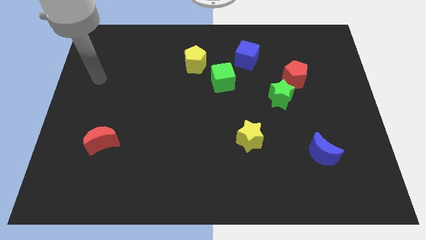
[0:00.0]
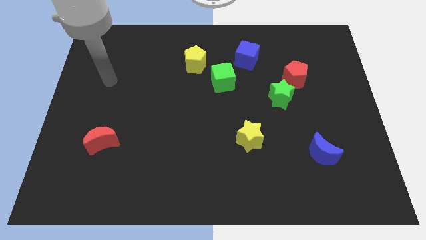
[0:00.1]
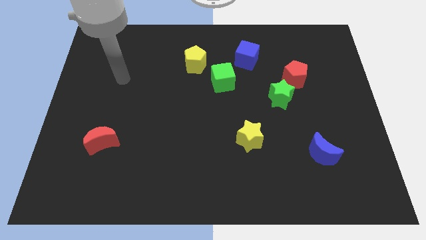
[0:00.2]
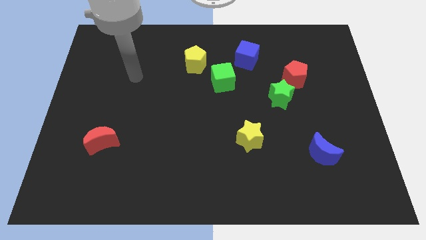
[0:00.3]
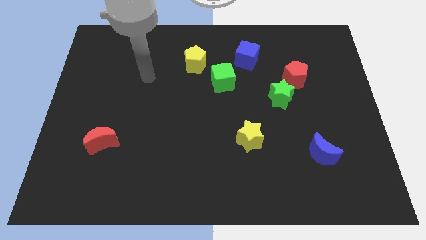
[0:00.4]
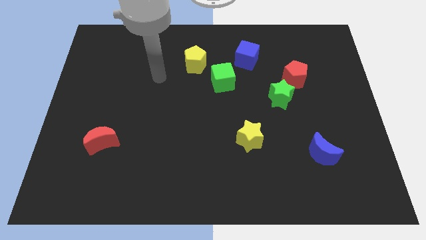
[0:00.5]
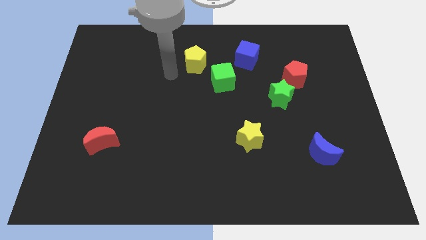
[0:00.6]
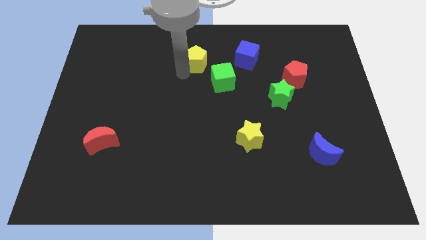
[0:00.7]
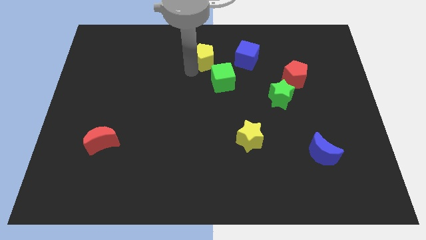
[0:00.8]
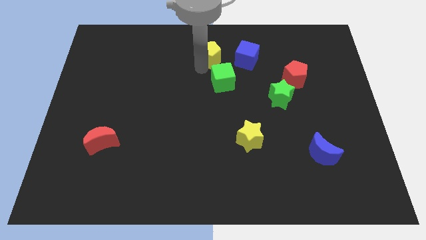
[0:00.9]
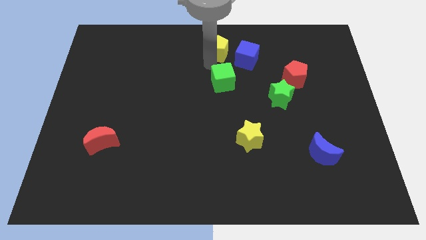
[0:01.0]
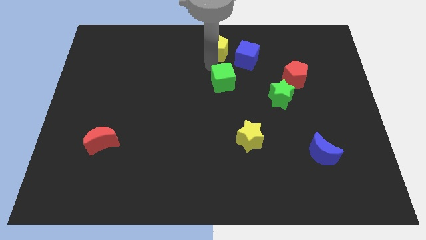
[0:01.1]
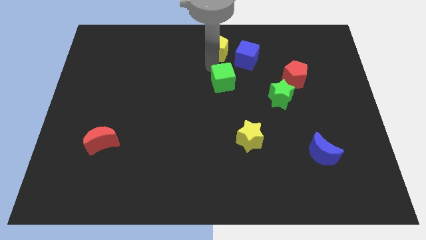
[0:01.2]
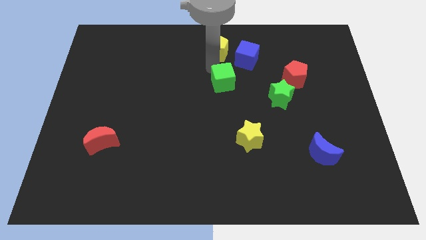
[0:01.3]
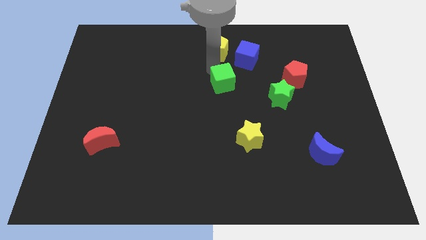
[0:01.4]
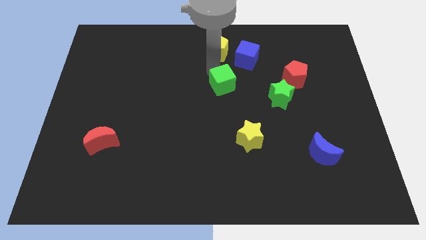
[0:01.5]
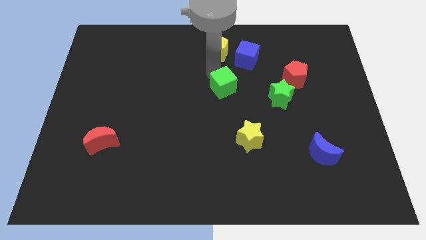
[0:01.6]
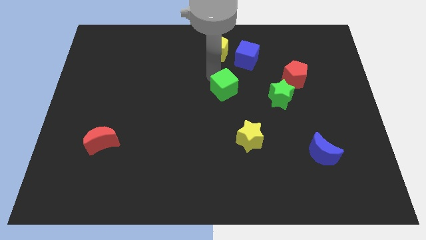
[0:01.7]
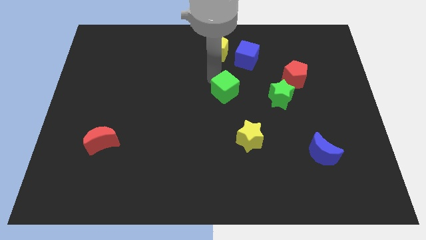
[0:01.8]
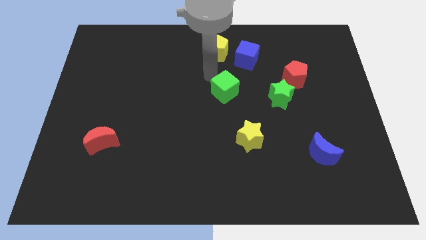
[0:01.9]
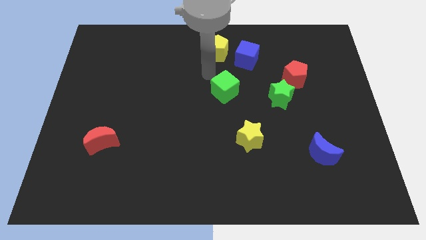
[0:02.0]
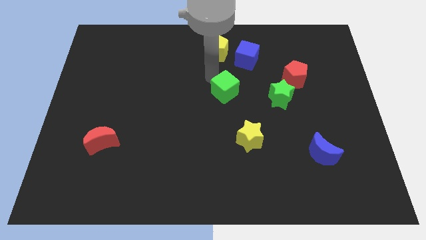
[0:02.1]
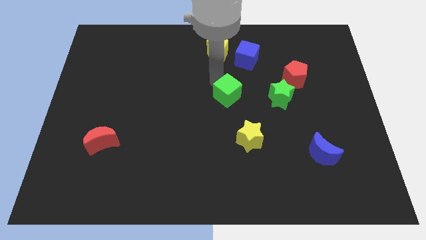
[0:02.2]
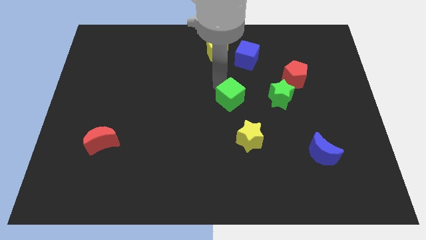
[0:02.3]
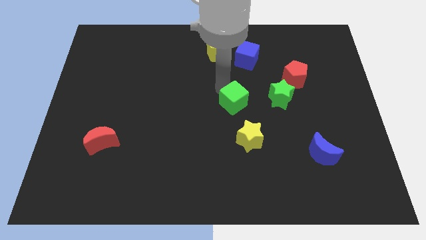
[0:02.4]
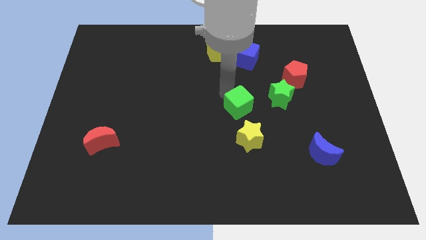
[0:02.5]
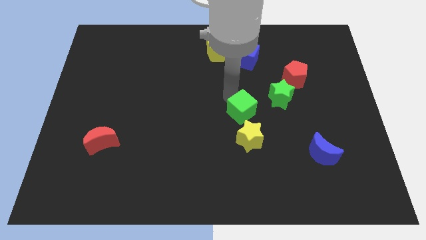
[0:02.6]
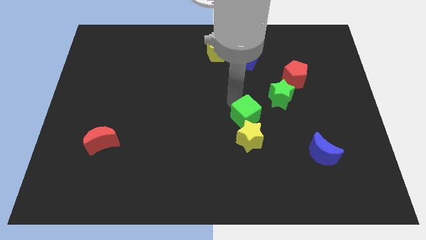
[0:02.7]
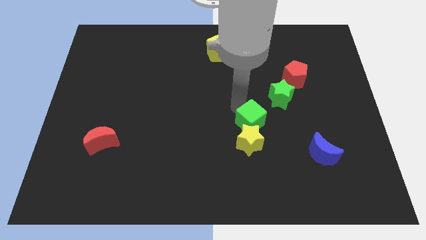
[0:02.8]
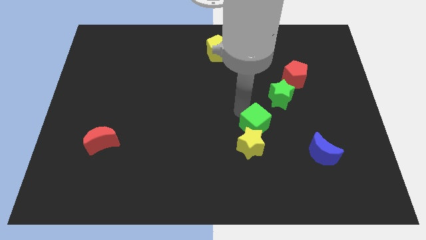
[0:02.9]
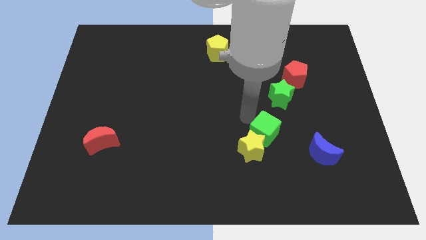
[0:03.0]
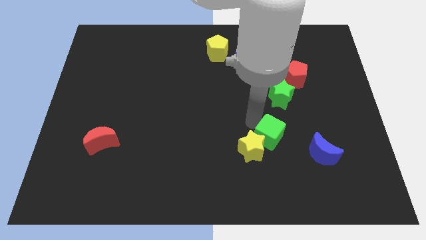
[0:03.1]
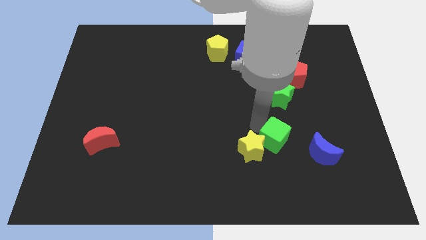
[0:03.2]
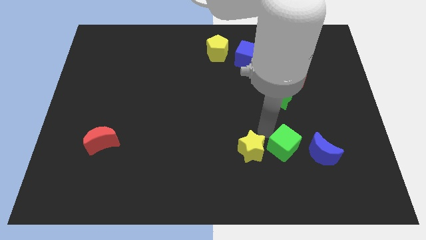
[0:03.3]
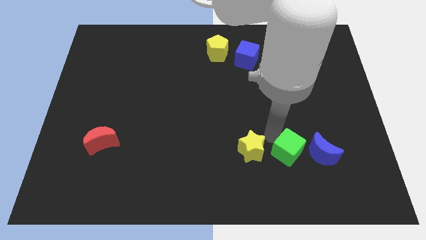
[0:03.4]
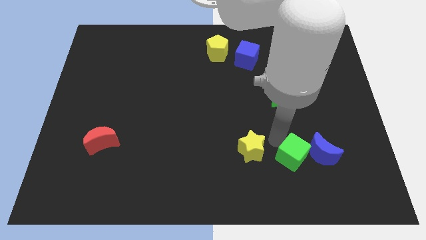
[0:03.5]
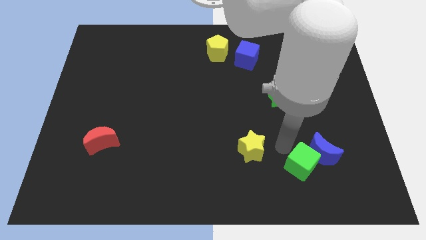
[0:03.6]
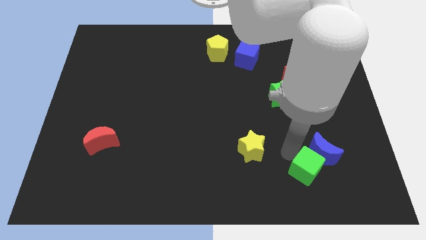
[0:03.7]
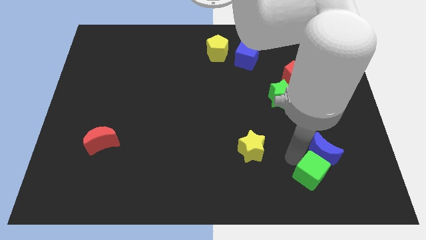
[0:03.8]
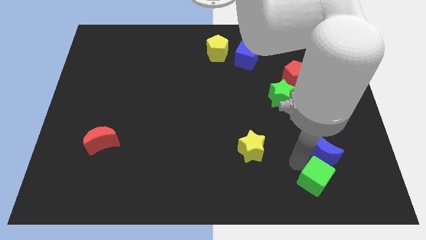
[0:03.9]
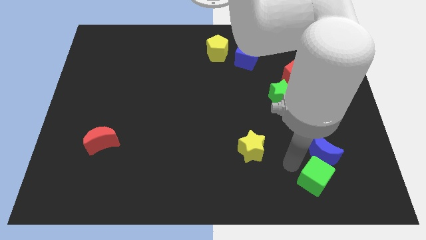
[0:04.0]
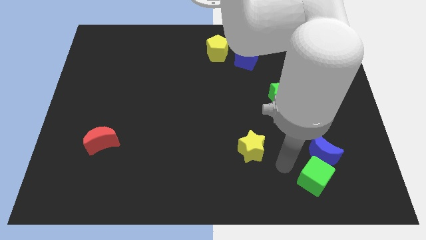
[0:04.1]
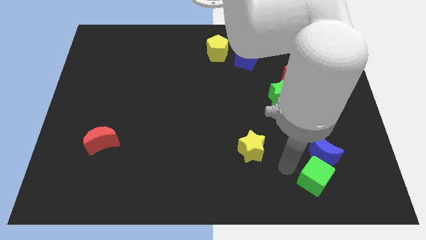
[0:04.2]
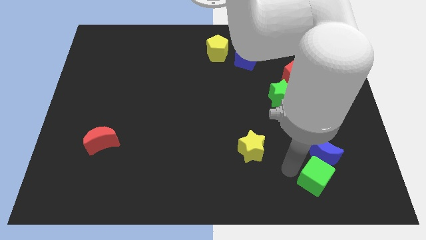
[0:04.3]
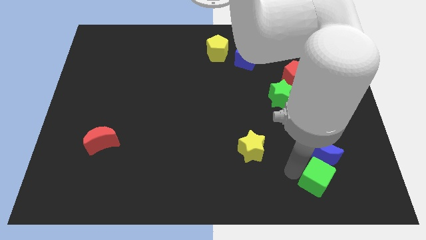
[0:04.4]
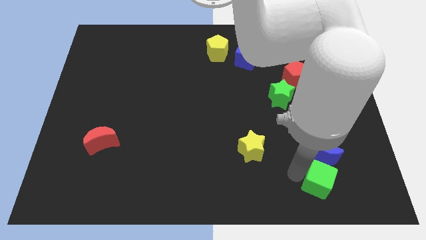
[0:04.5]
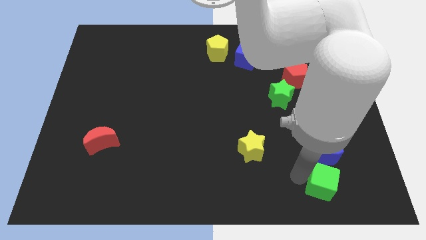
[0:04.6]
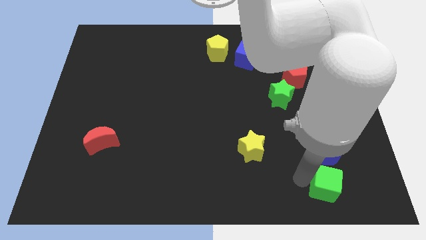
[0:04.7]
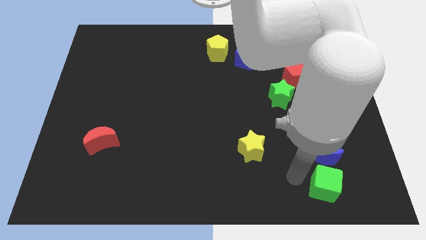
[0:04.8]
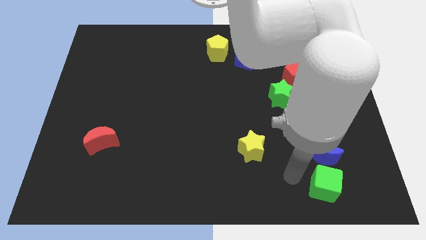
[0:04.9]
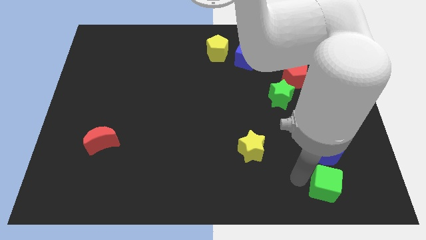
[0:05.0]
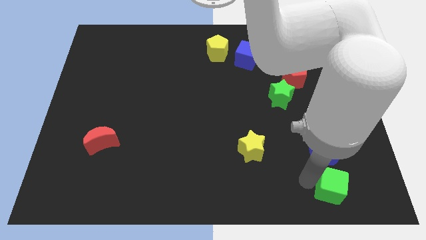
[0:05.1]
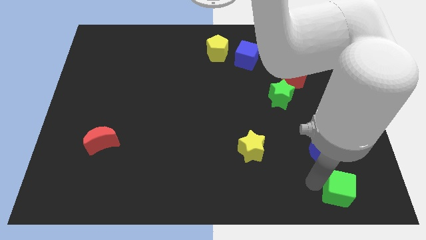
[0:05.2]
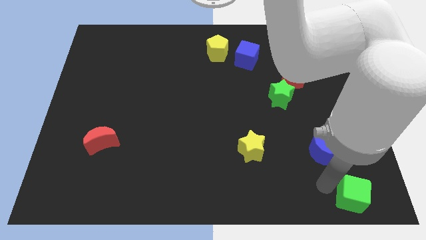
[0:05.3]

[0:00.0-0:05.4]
slide the green cube to the bottom right

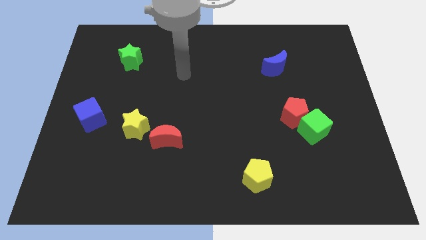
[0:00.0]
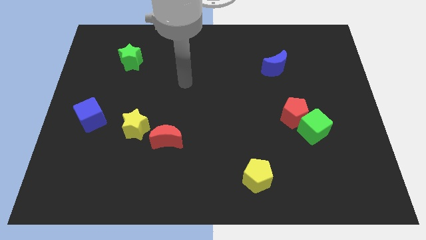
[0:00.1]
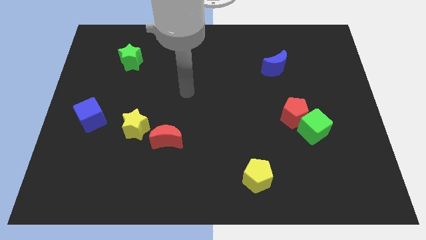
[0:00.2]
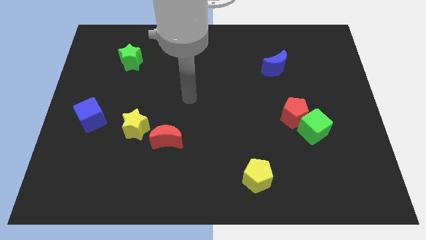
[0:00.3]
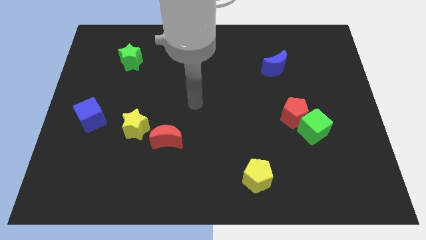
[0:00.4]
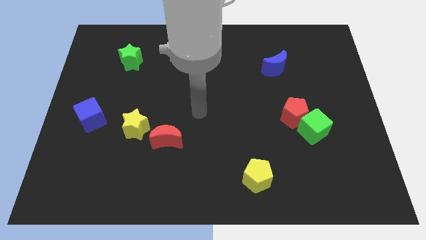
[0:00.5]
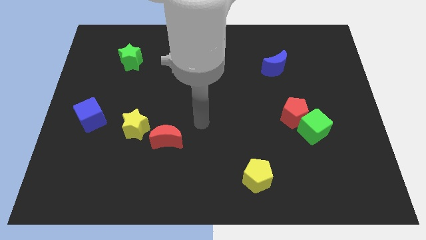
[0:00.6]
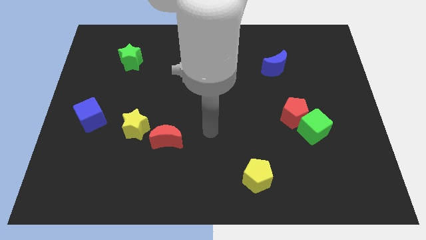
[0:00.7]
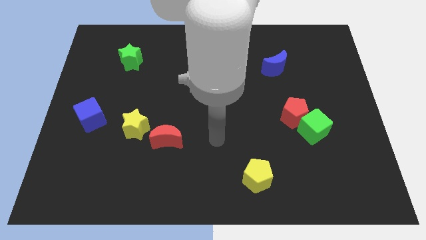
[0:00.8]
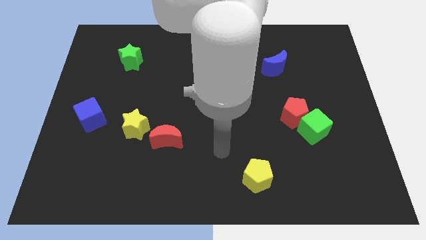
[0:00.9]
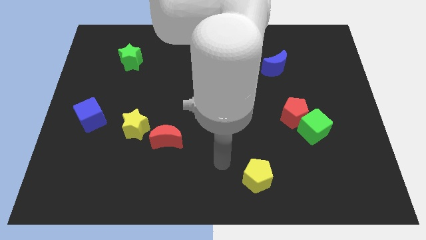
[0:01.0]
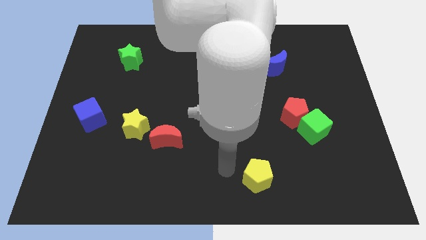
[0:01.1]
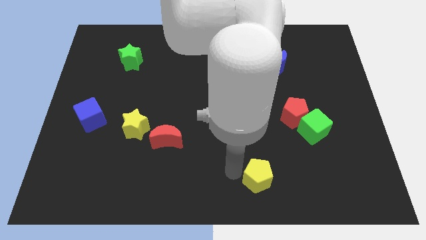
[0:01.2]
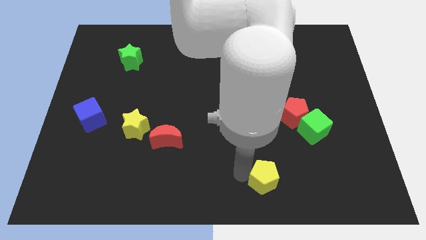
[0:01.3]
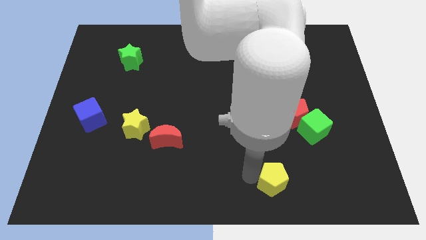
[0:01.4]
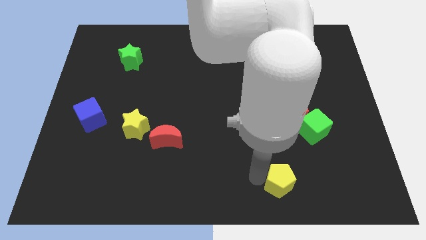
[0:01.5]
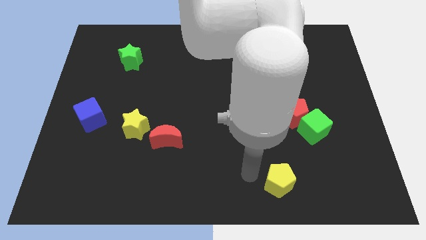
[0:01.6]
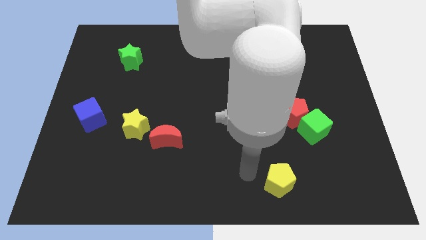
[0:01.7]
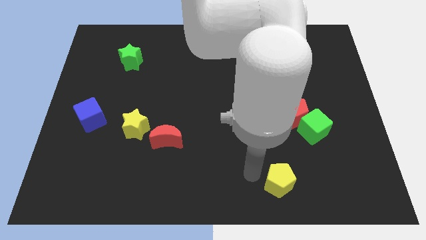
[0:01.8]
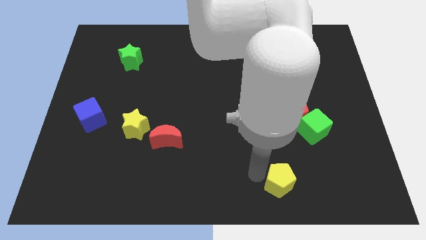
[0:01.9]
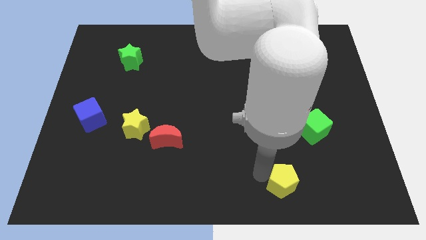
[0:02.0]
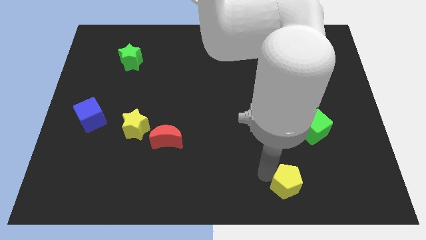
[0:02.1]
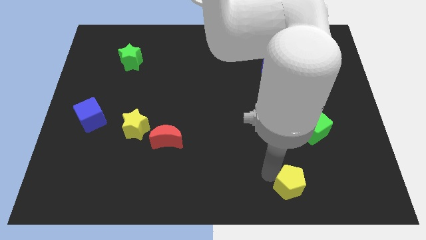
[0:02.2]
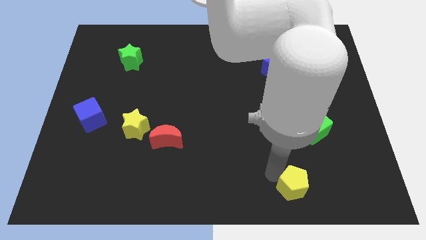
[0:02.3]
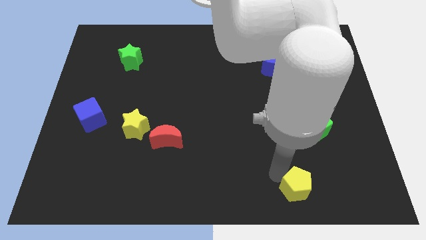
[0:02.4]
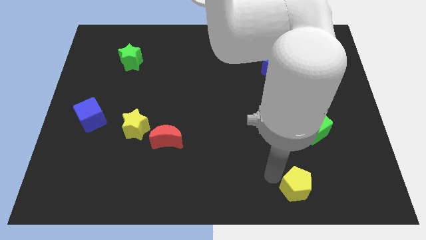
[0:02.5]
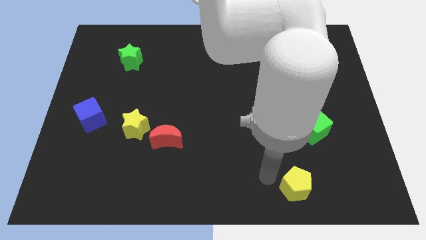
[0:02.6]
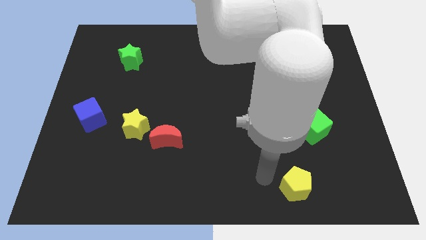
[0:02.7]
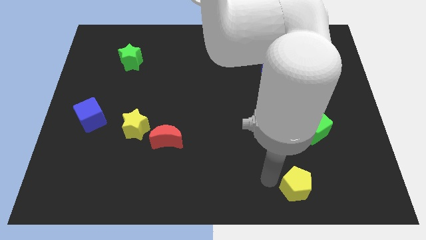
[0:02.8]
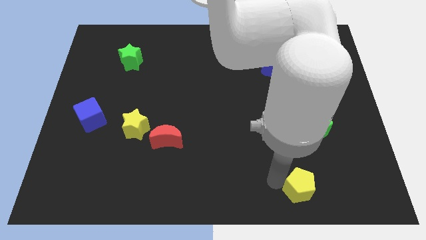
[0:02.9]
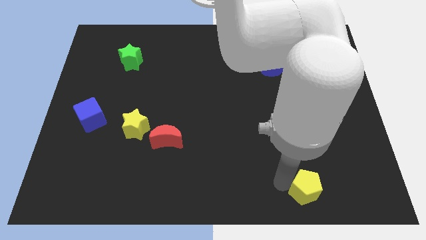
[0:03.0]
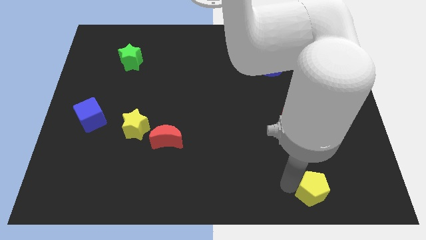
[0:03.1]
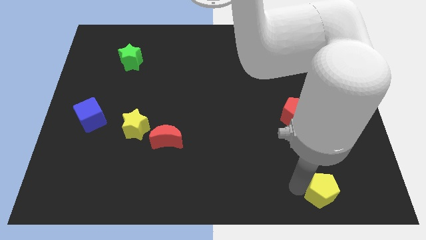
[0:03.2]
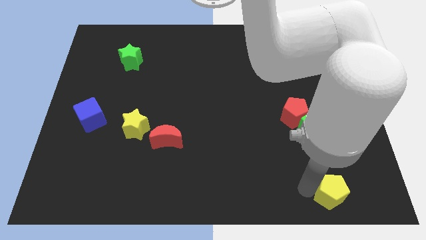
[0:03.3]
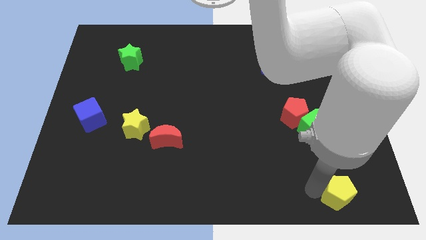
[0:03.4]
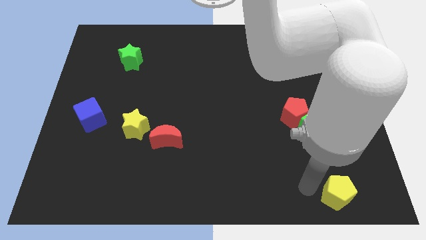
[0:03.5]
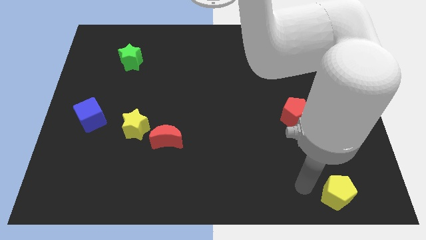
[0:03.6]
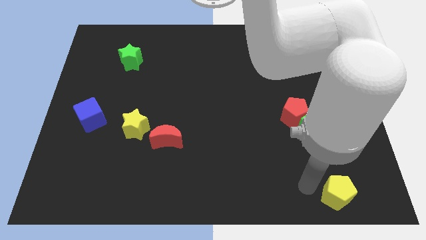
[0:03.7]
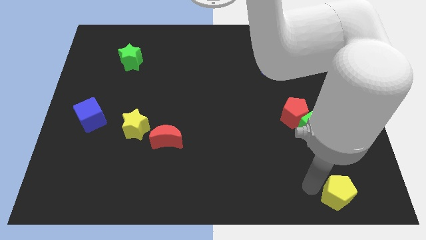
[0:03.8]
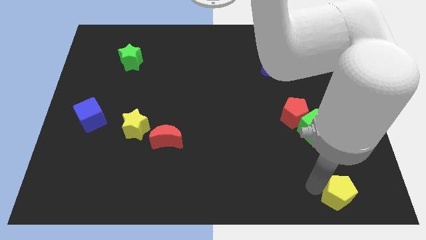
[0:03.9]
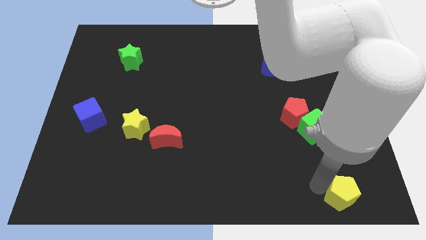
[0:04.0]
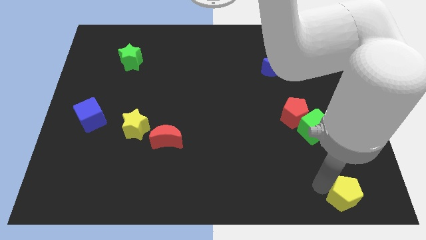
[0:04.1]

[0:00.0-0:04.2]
push the yellow pentagon to the lower right corner
